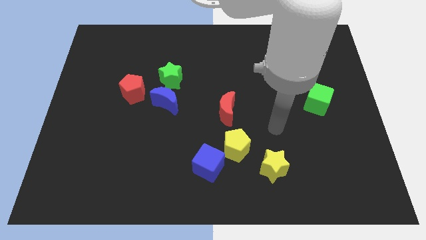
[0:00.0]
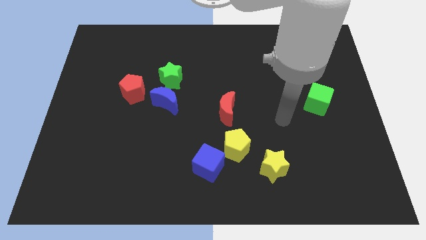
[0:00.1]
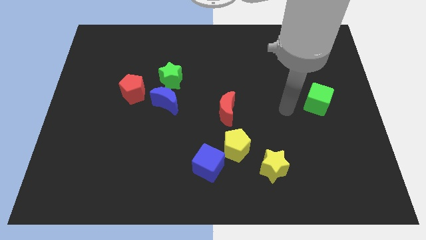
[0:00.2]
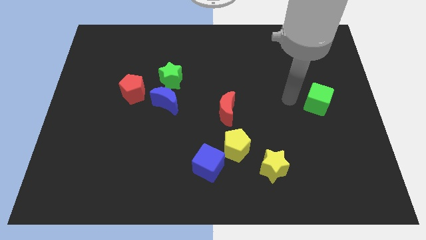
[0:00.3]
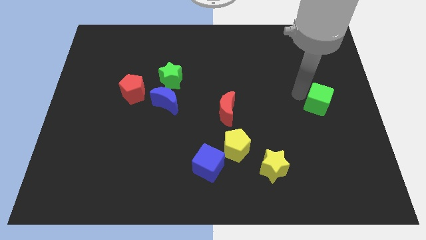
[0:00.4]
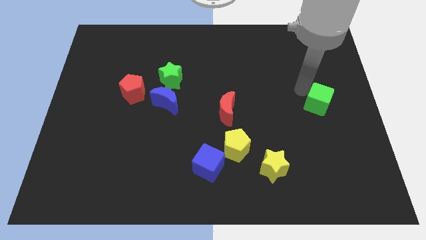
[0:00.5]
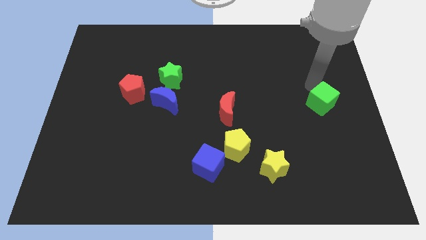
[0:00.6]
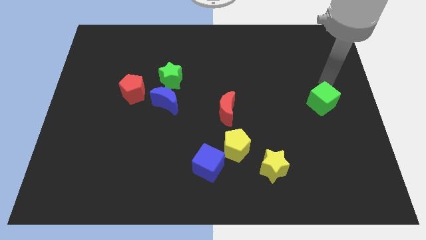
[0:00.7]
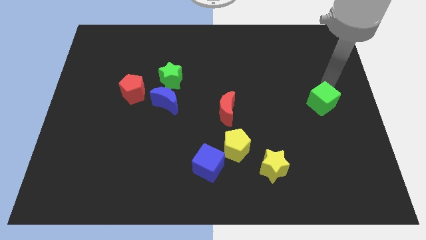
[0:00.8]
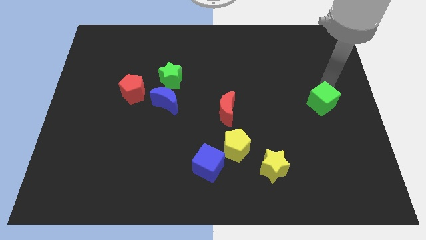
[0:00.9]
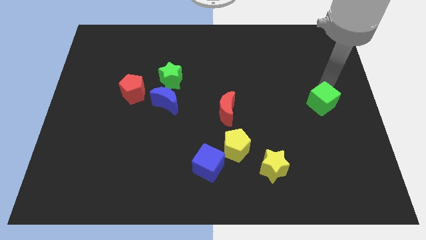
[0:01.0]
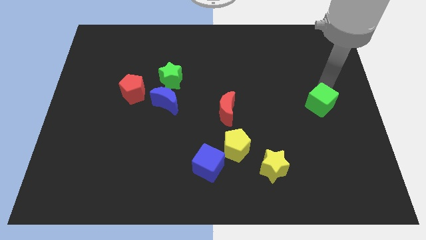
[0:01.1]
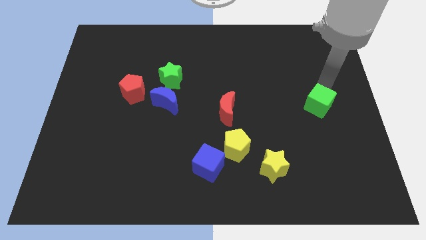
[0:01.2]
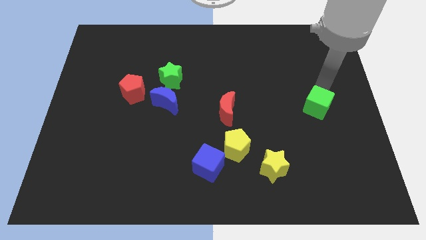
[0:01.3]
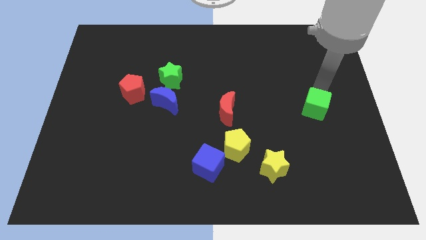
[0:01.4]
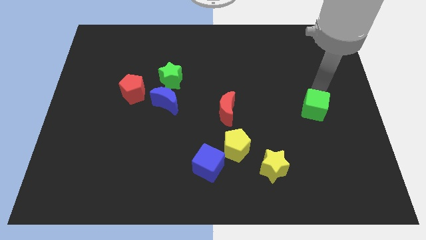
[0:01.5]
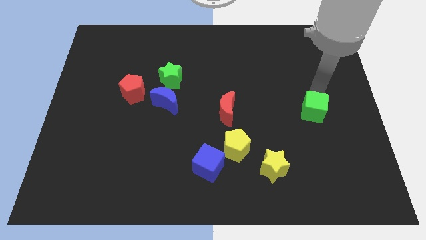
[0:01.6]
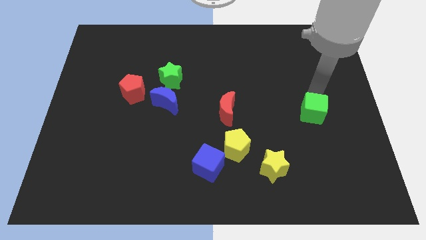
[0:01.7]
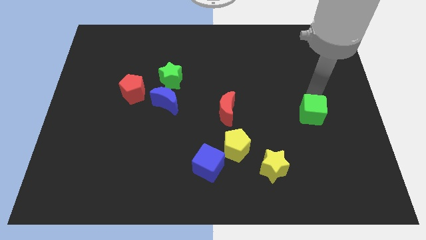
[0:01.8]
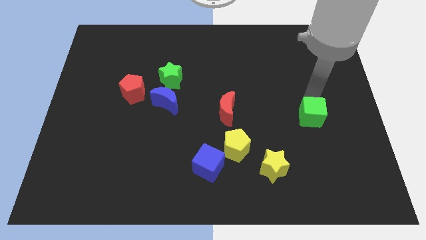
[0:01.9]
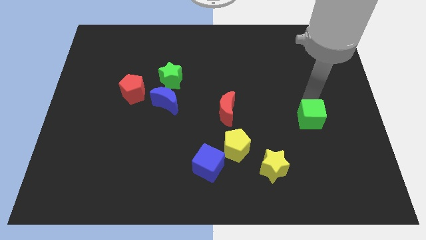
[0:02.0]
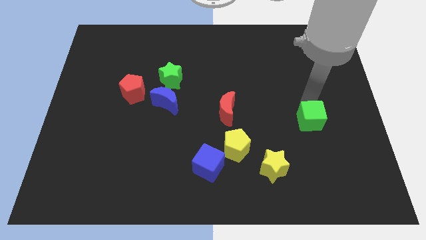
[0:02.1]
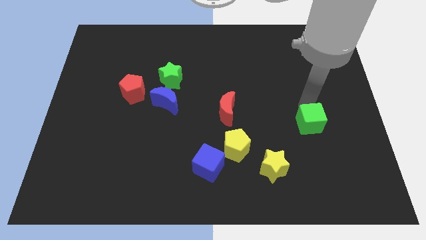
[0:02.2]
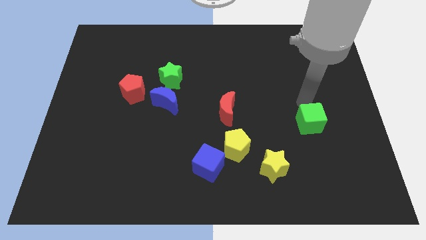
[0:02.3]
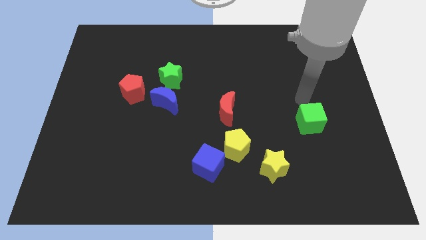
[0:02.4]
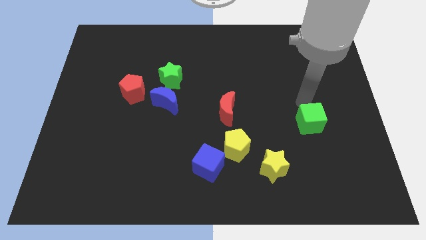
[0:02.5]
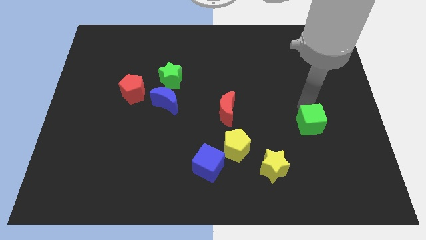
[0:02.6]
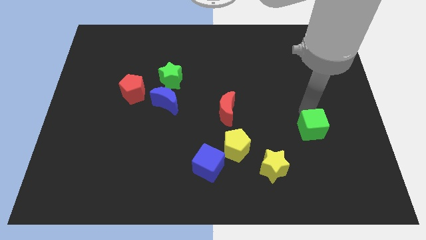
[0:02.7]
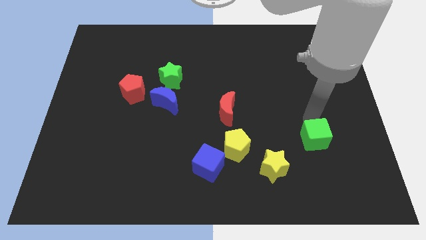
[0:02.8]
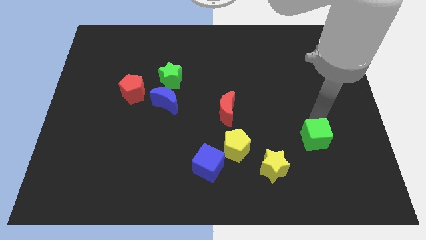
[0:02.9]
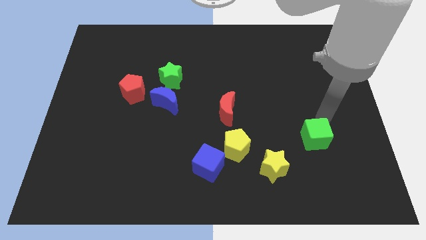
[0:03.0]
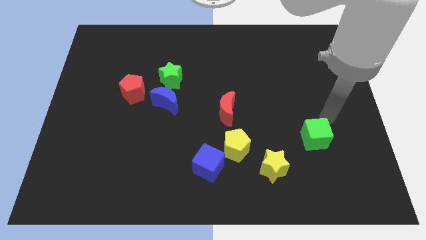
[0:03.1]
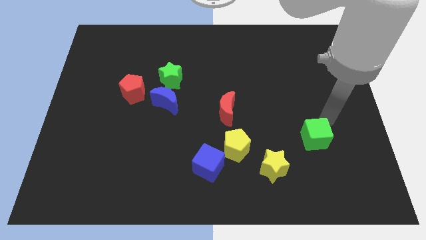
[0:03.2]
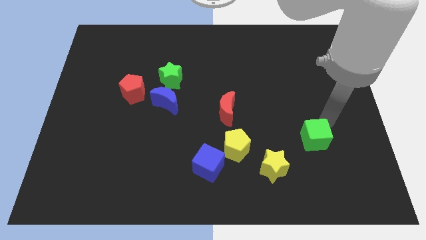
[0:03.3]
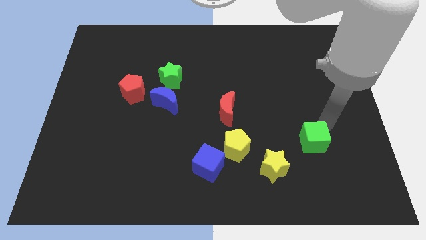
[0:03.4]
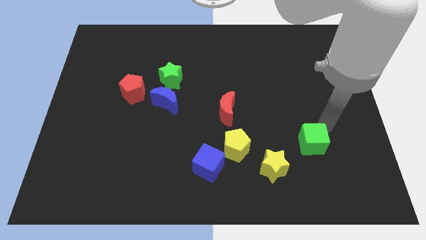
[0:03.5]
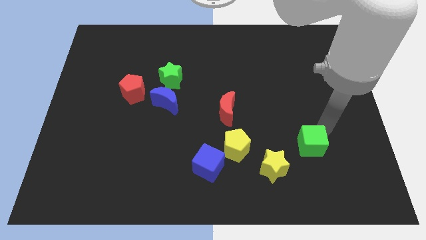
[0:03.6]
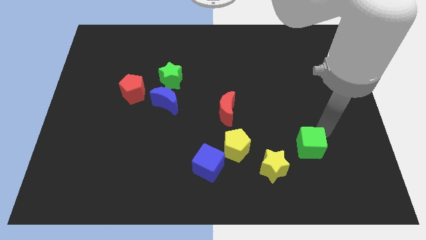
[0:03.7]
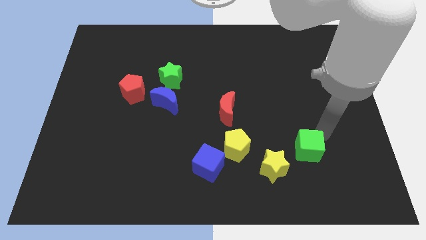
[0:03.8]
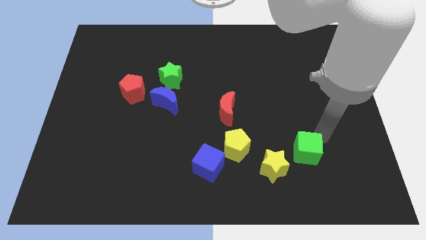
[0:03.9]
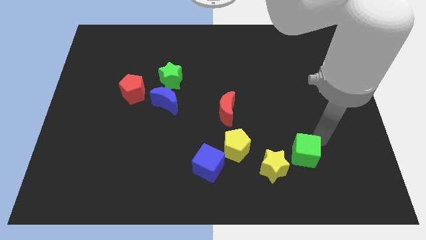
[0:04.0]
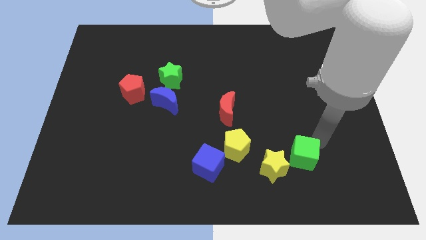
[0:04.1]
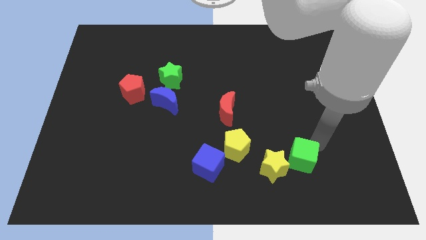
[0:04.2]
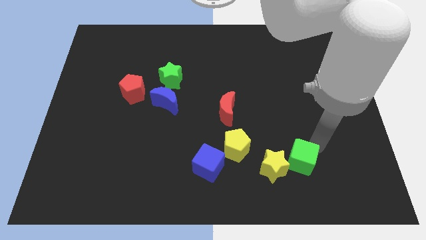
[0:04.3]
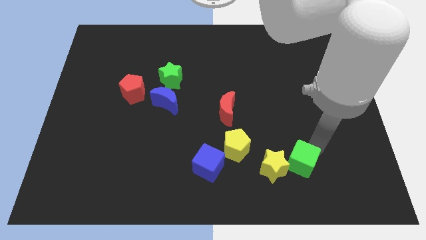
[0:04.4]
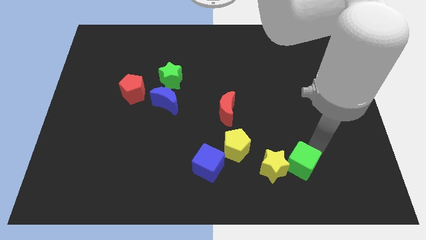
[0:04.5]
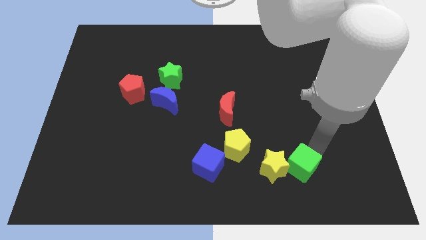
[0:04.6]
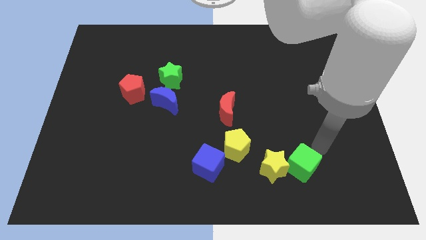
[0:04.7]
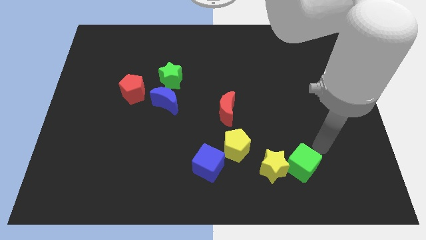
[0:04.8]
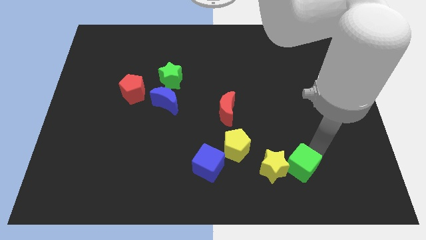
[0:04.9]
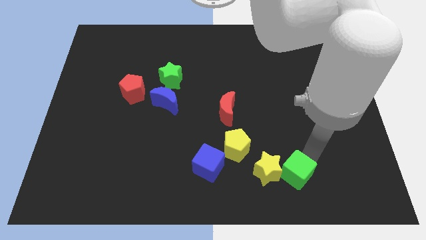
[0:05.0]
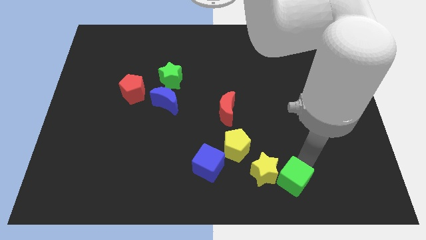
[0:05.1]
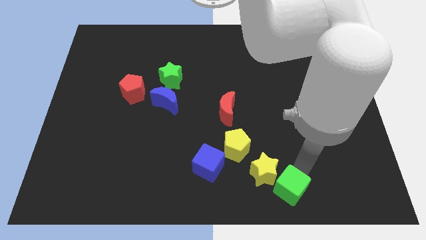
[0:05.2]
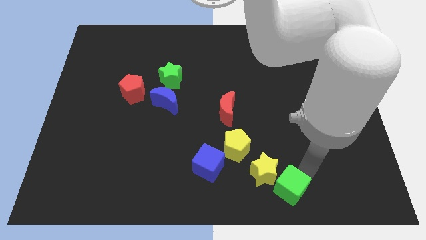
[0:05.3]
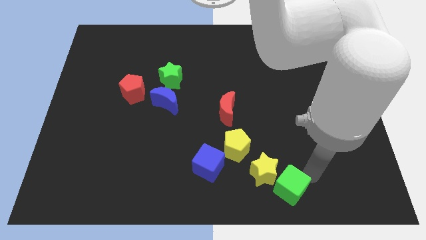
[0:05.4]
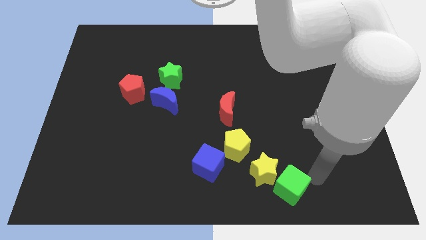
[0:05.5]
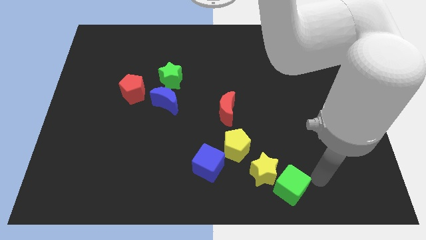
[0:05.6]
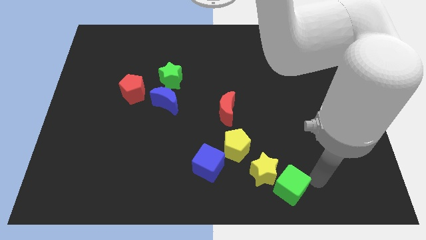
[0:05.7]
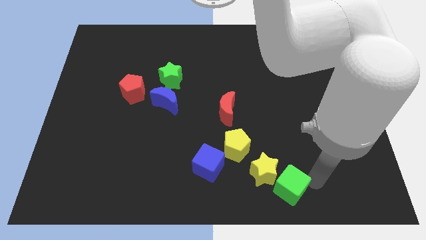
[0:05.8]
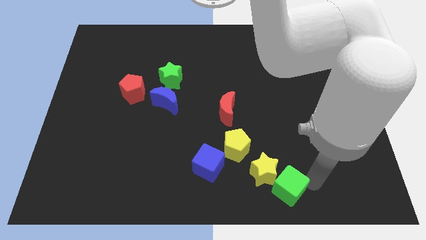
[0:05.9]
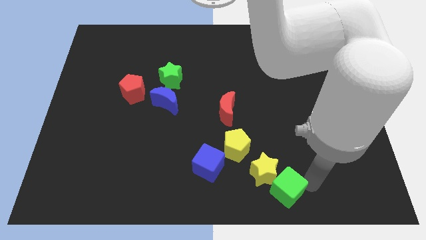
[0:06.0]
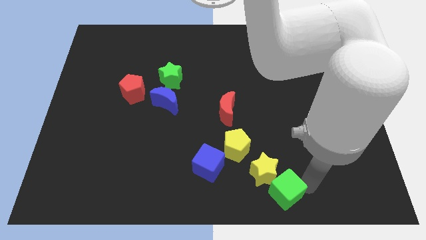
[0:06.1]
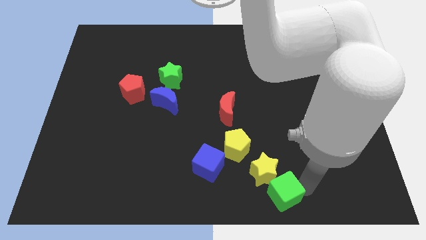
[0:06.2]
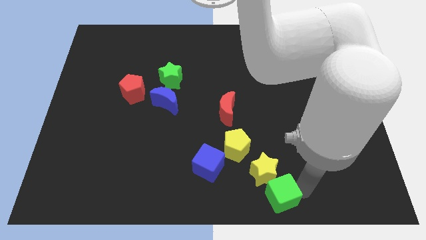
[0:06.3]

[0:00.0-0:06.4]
move the green cube to the bottom
